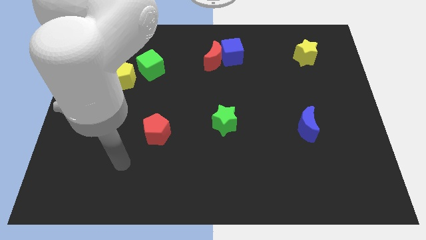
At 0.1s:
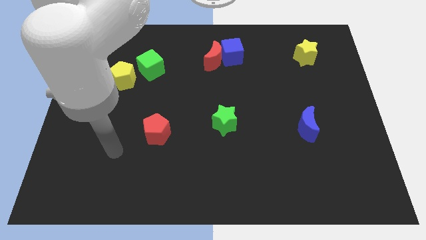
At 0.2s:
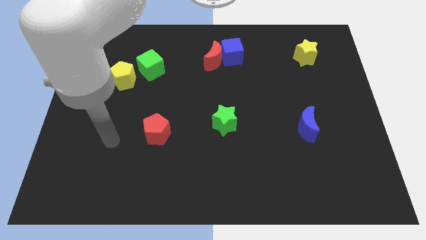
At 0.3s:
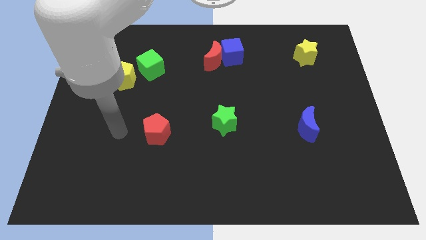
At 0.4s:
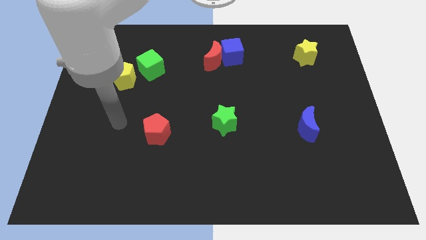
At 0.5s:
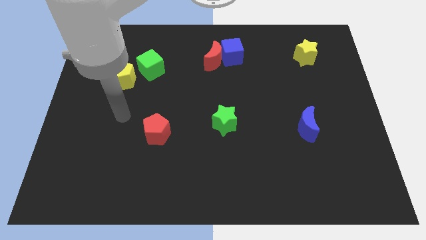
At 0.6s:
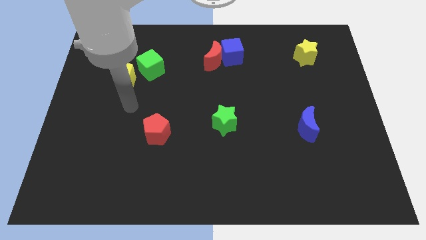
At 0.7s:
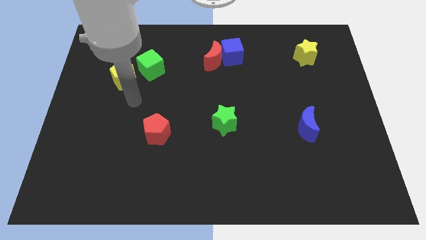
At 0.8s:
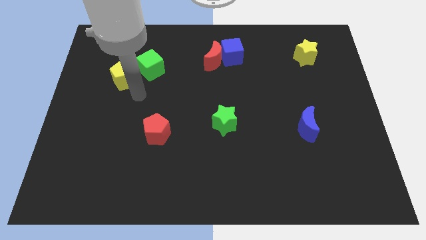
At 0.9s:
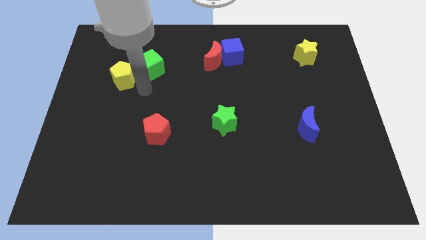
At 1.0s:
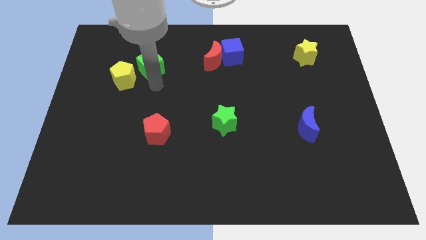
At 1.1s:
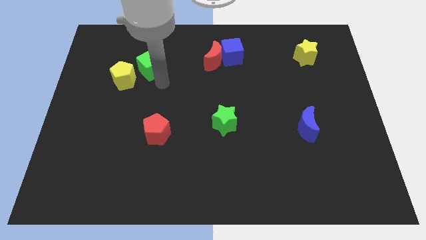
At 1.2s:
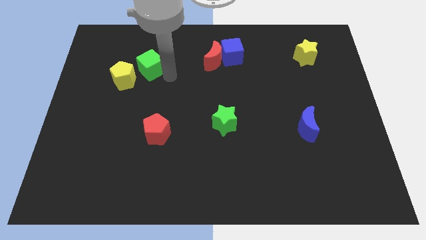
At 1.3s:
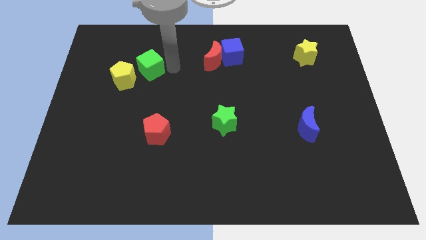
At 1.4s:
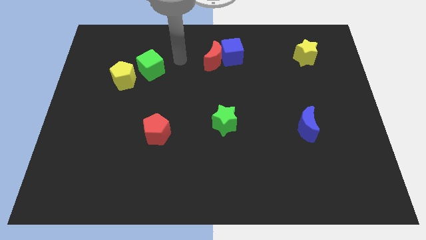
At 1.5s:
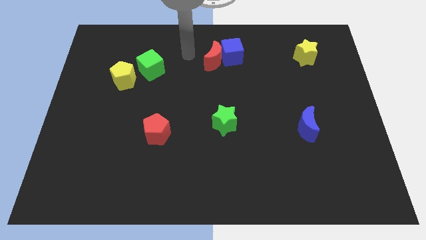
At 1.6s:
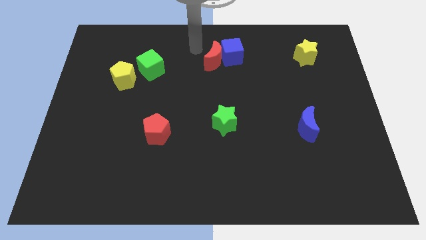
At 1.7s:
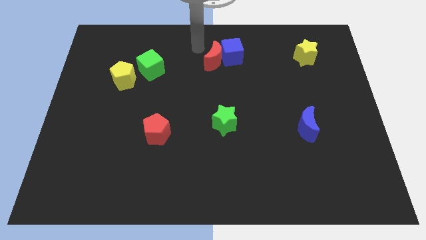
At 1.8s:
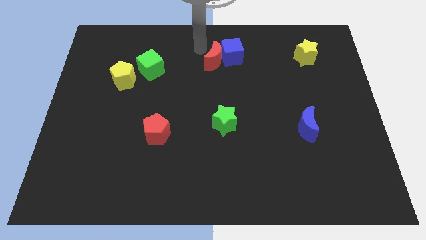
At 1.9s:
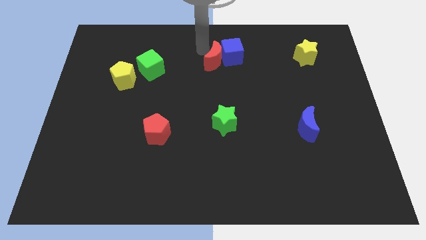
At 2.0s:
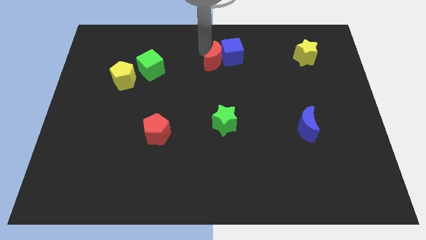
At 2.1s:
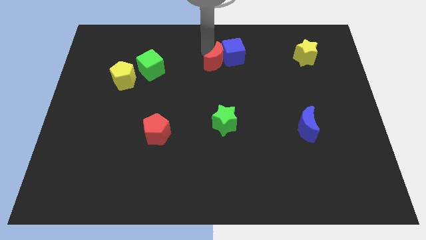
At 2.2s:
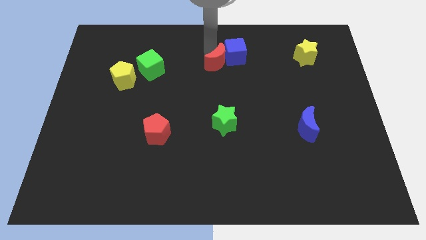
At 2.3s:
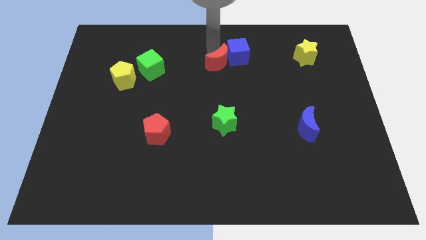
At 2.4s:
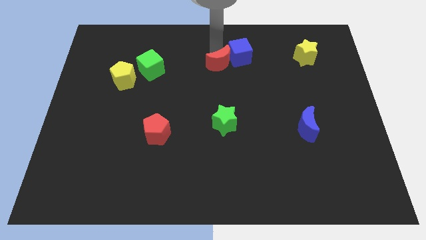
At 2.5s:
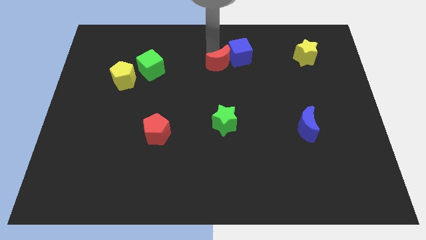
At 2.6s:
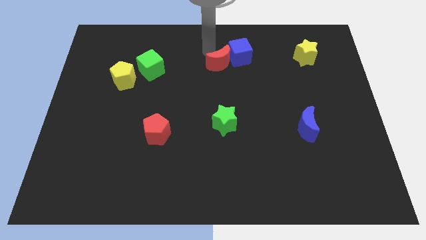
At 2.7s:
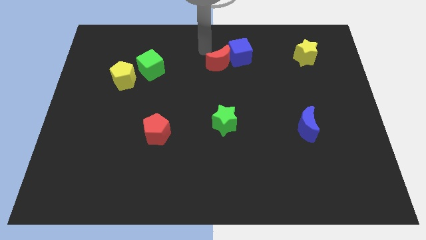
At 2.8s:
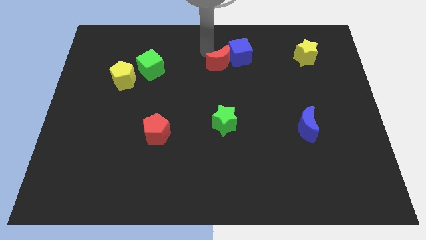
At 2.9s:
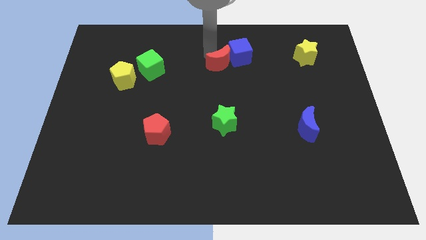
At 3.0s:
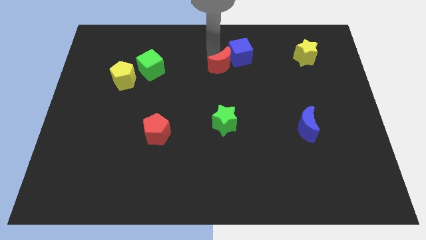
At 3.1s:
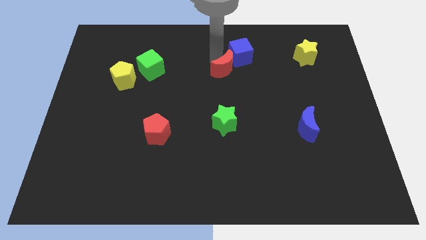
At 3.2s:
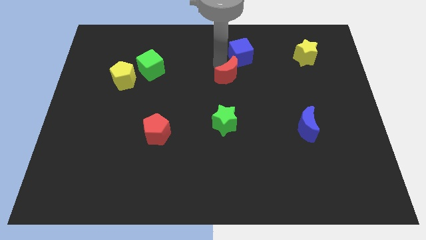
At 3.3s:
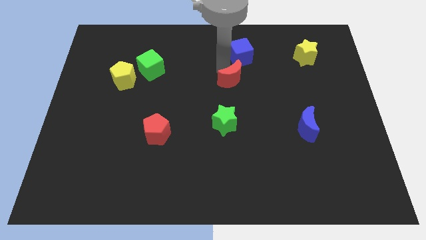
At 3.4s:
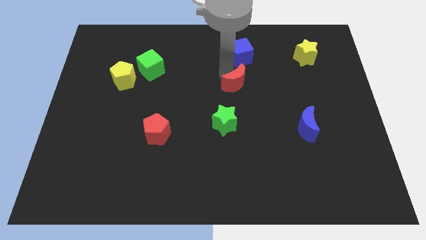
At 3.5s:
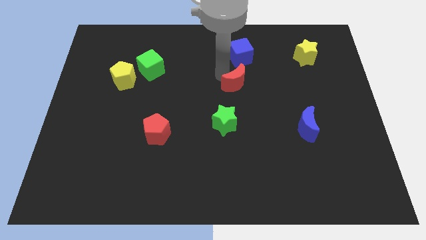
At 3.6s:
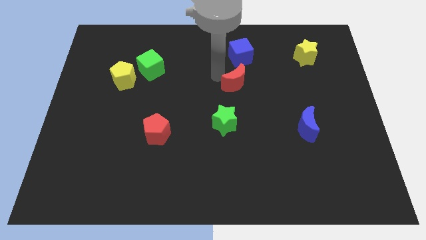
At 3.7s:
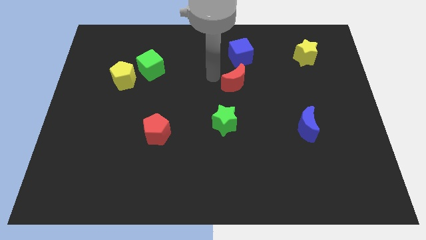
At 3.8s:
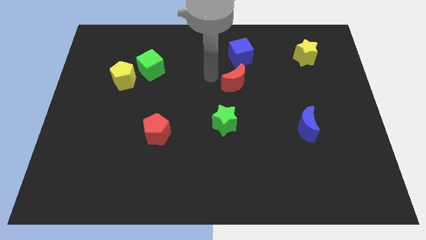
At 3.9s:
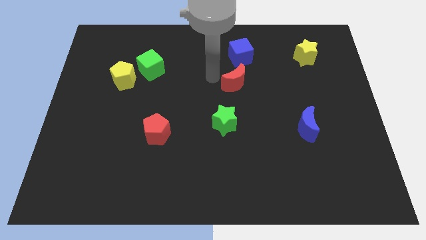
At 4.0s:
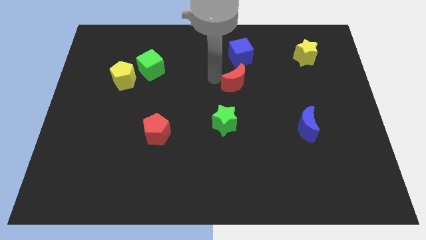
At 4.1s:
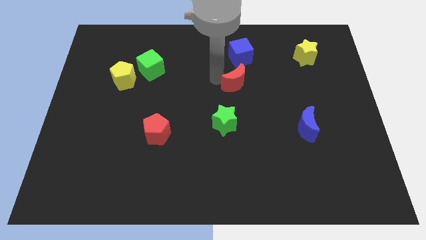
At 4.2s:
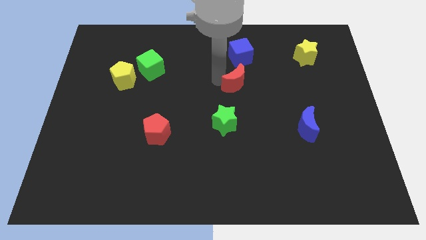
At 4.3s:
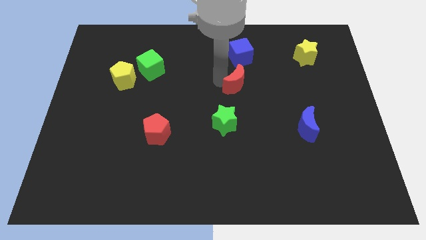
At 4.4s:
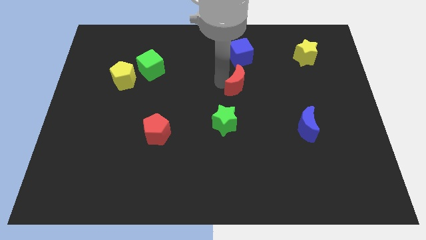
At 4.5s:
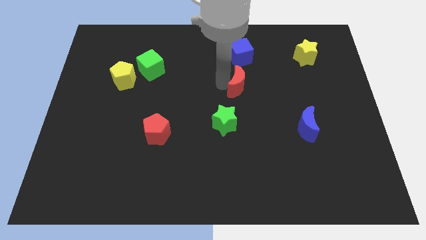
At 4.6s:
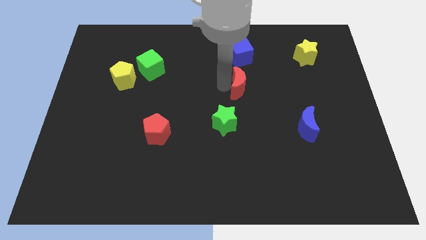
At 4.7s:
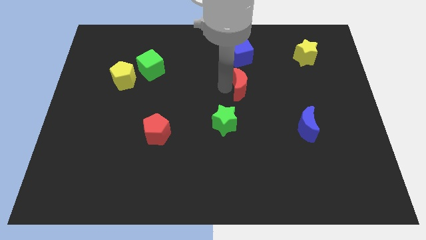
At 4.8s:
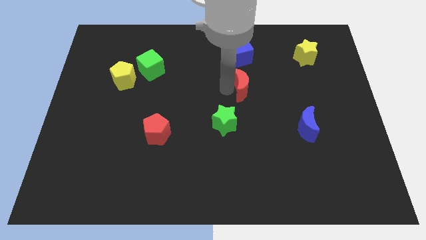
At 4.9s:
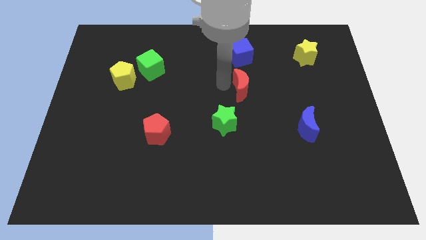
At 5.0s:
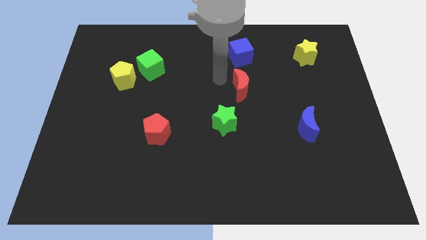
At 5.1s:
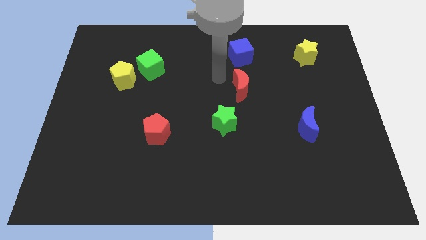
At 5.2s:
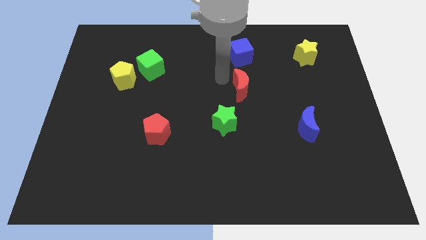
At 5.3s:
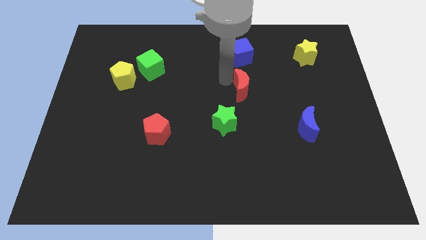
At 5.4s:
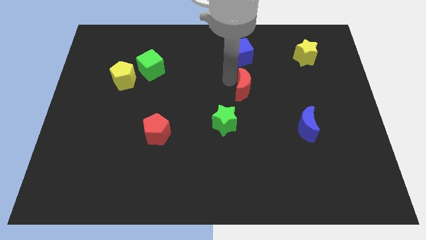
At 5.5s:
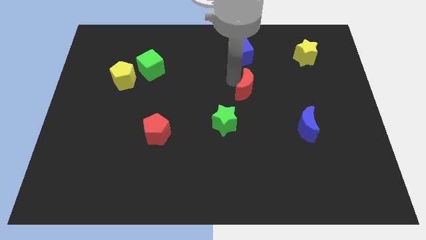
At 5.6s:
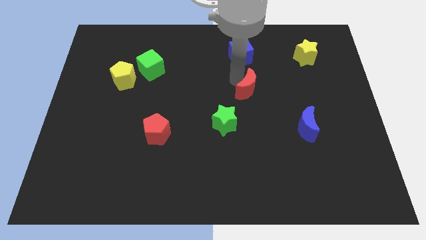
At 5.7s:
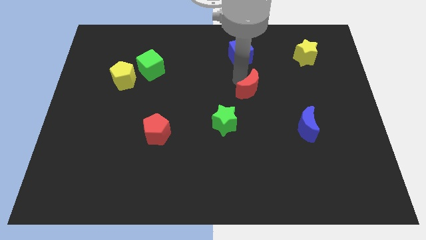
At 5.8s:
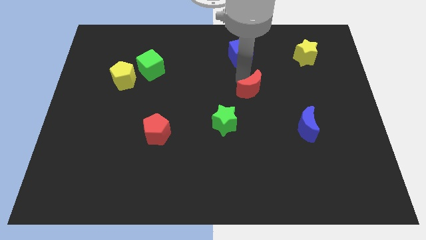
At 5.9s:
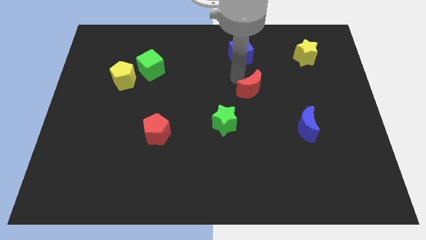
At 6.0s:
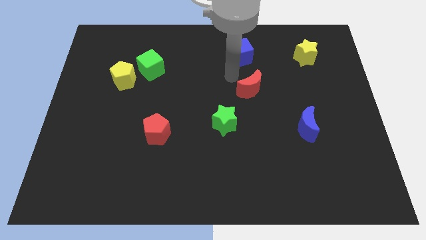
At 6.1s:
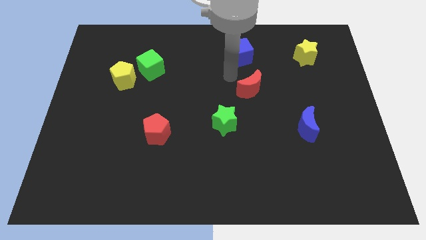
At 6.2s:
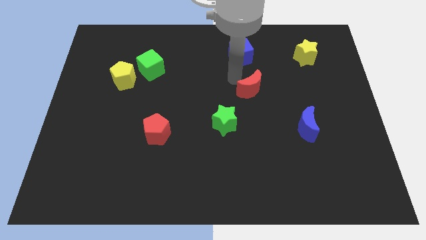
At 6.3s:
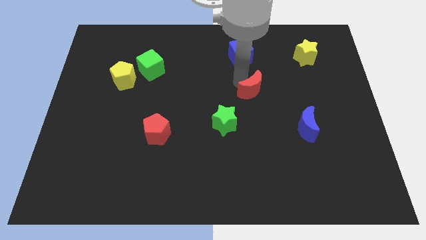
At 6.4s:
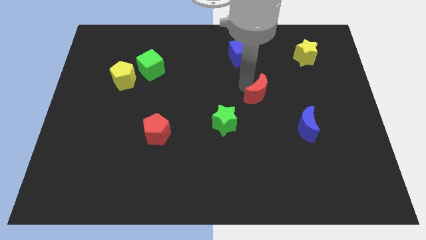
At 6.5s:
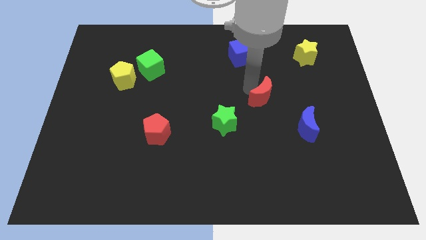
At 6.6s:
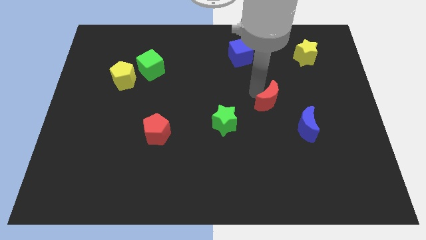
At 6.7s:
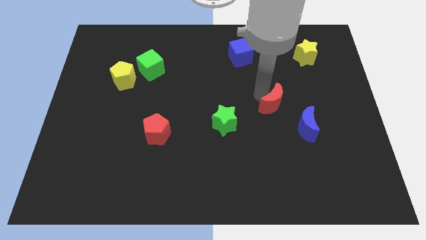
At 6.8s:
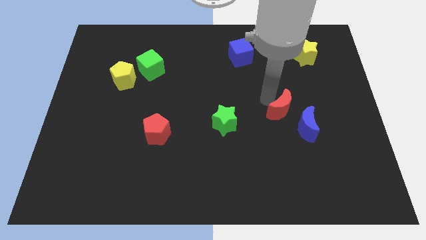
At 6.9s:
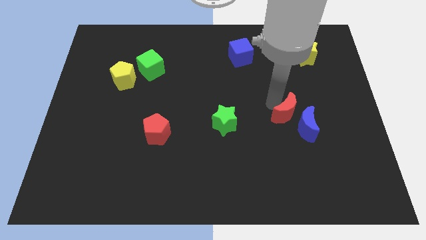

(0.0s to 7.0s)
move the red moon close to the blue moon
